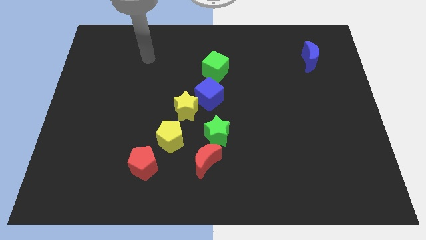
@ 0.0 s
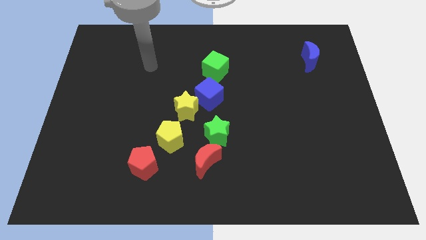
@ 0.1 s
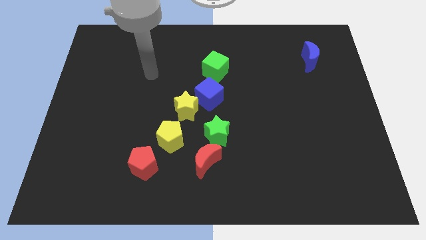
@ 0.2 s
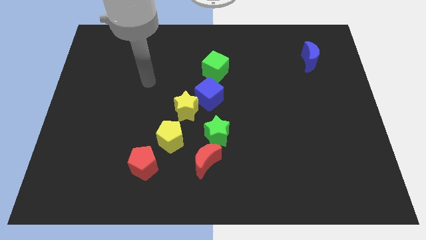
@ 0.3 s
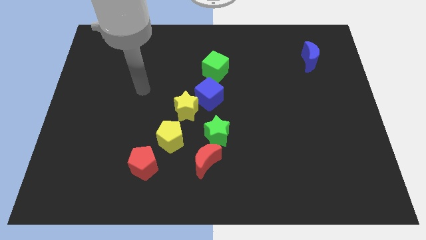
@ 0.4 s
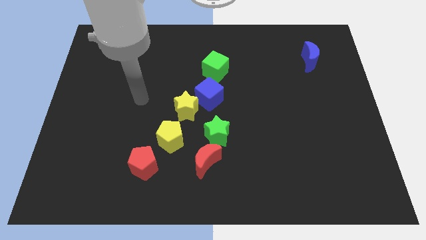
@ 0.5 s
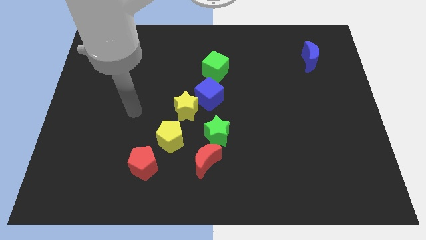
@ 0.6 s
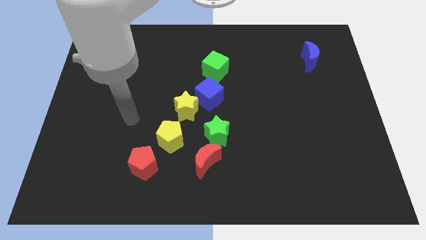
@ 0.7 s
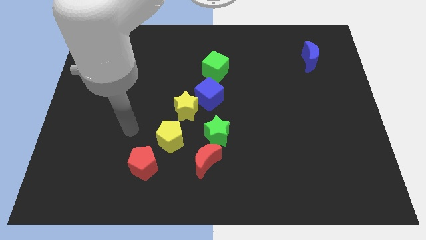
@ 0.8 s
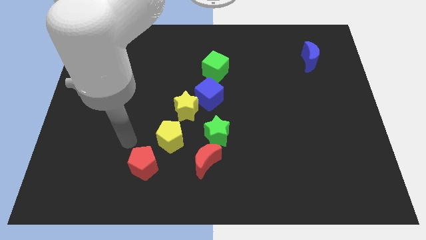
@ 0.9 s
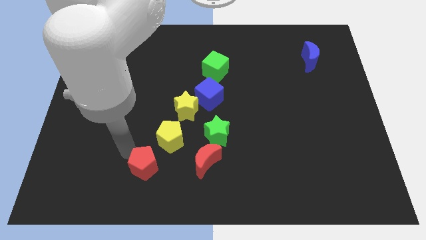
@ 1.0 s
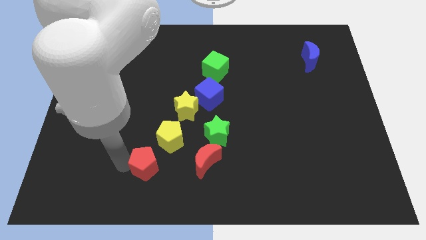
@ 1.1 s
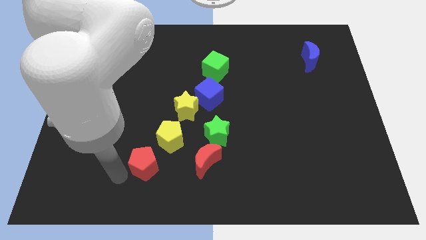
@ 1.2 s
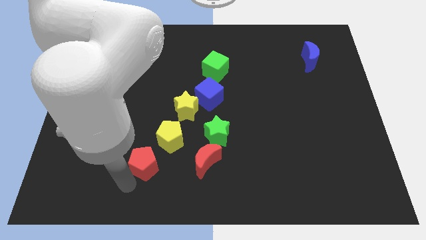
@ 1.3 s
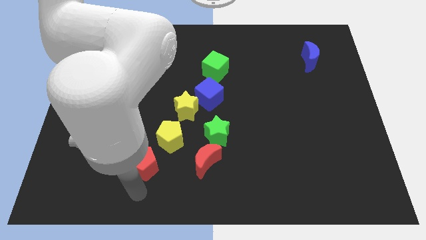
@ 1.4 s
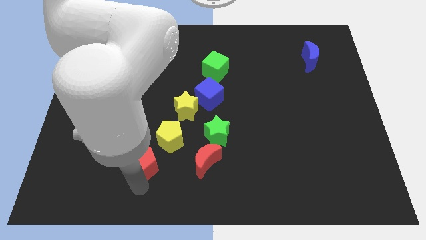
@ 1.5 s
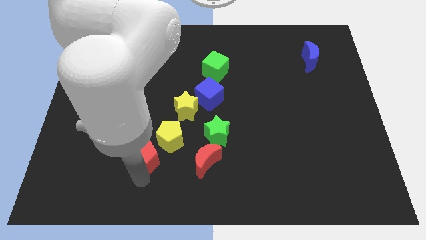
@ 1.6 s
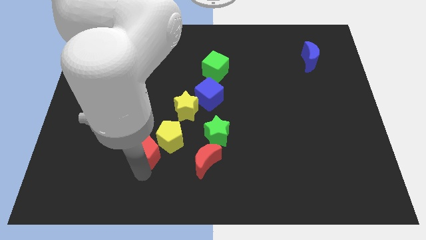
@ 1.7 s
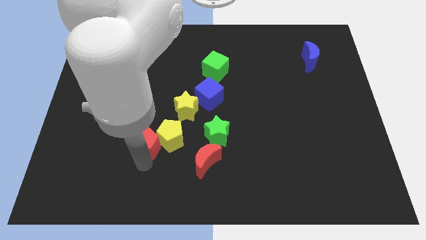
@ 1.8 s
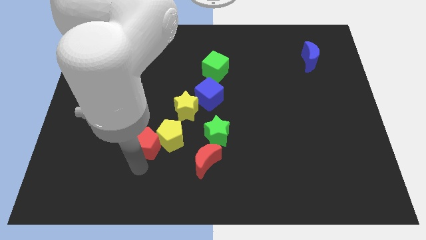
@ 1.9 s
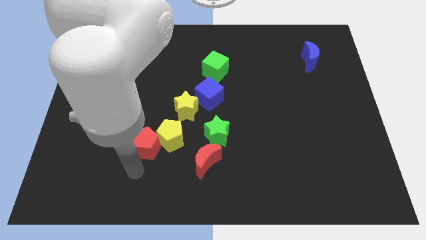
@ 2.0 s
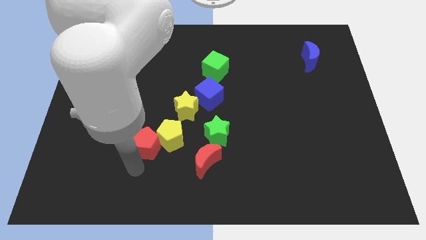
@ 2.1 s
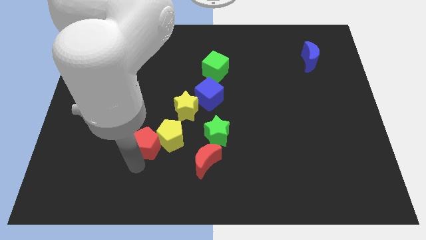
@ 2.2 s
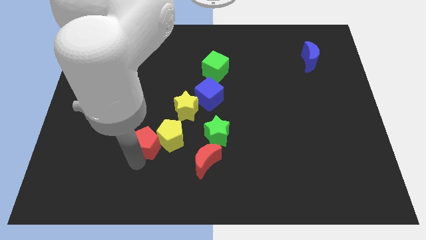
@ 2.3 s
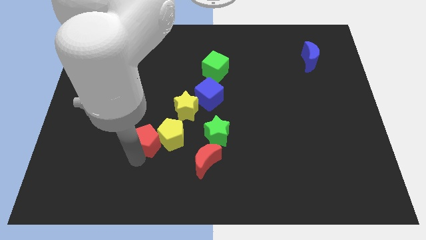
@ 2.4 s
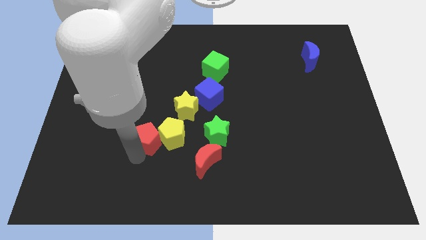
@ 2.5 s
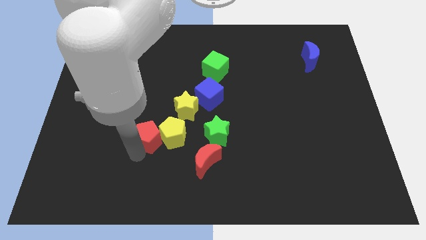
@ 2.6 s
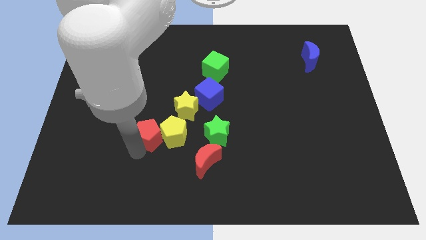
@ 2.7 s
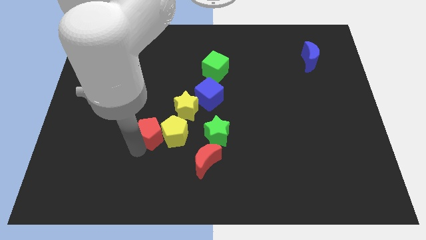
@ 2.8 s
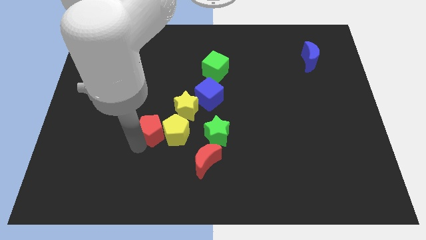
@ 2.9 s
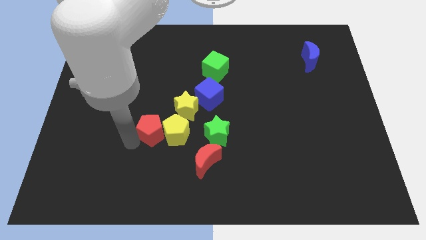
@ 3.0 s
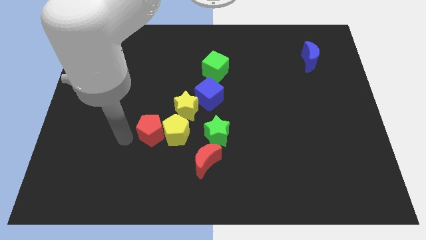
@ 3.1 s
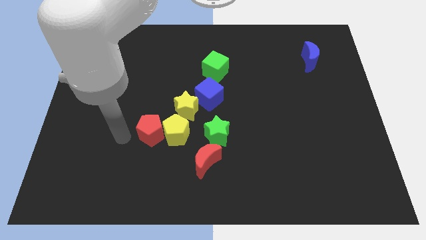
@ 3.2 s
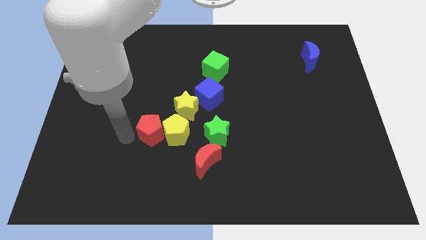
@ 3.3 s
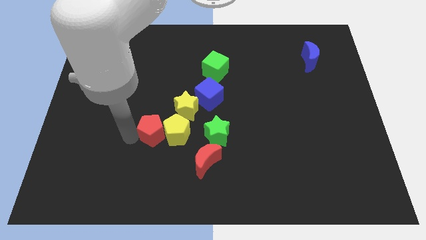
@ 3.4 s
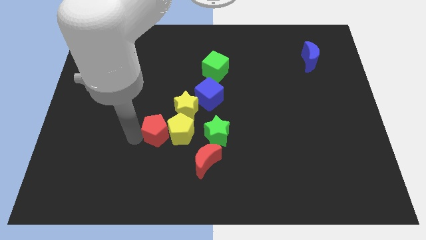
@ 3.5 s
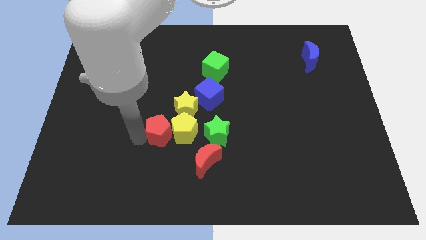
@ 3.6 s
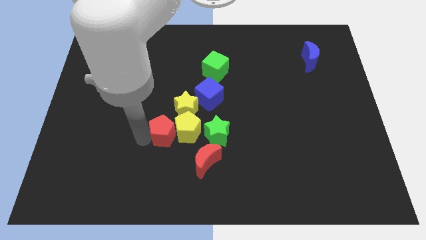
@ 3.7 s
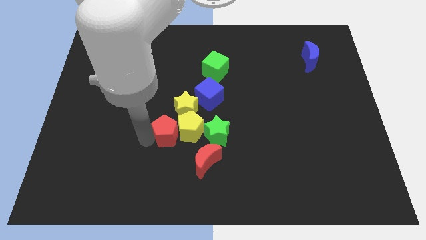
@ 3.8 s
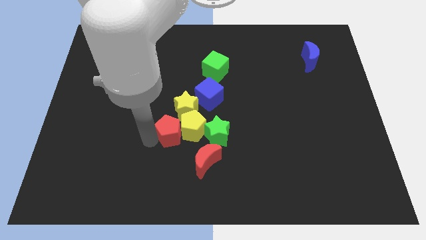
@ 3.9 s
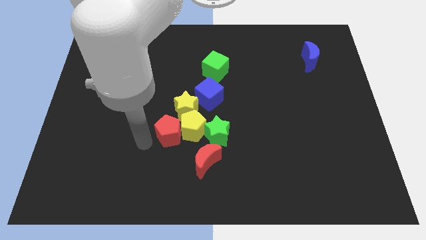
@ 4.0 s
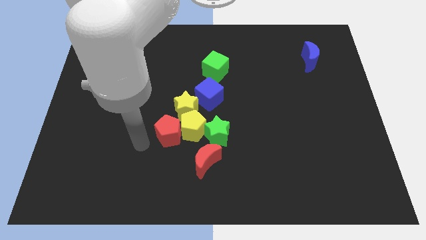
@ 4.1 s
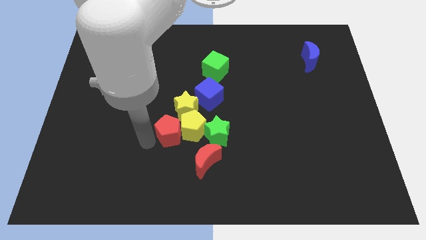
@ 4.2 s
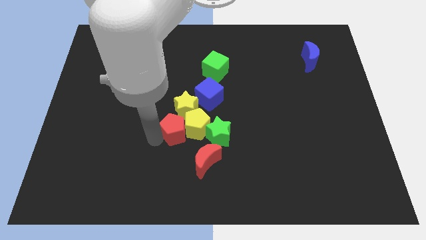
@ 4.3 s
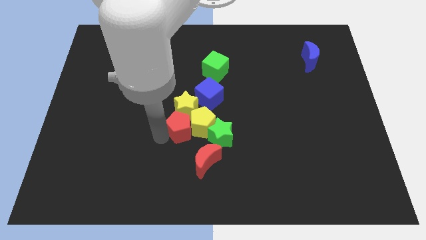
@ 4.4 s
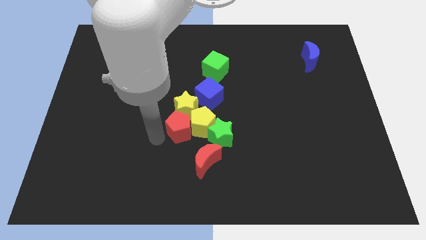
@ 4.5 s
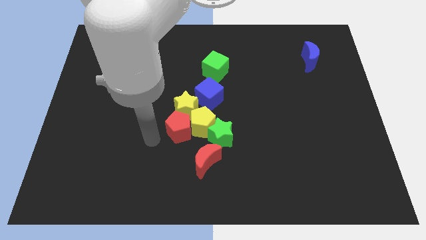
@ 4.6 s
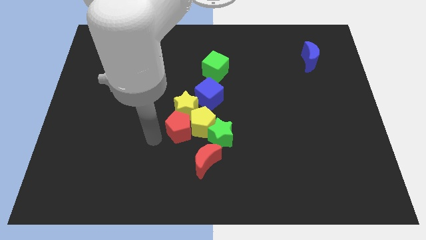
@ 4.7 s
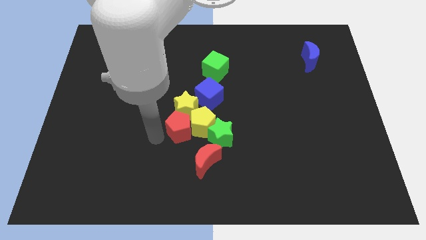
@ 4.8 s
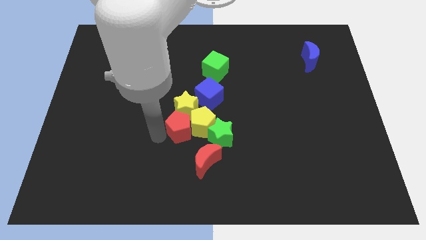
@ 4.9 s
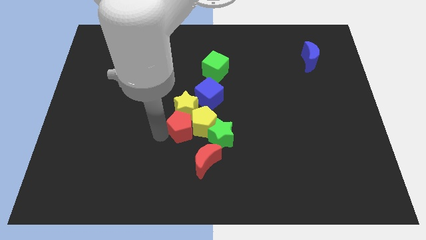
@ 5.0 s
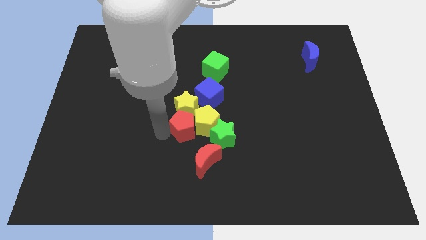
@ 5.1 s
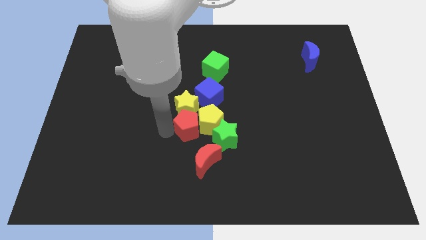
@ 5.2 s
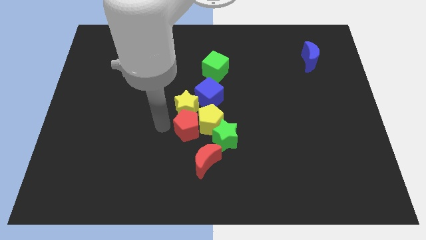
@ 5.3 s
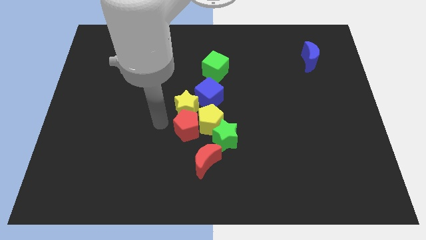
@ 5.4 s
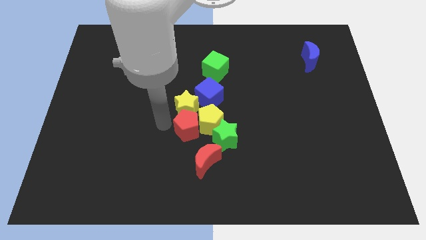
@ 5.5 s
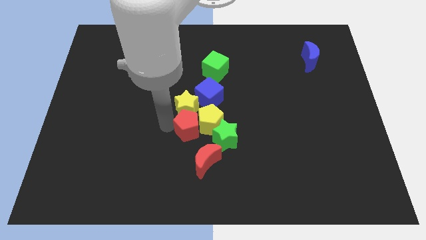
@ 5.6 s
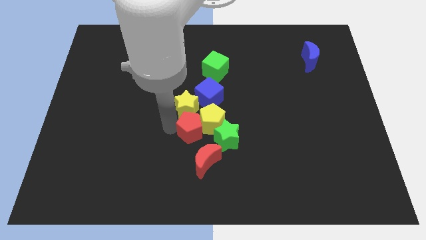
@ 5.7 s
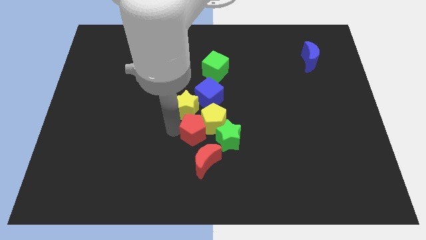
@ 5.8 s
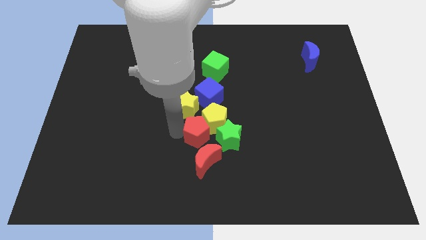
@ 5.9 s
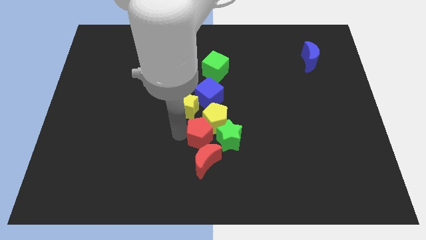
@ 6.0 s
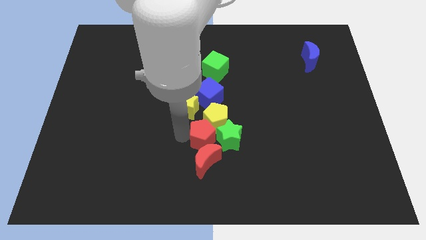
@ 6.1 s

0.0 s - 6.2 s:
slide the red pentagon to the green star

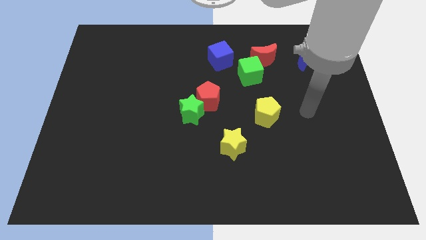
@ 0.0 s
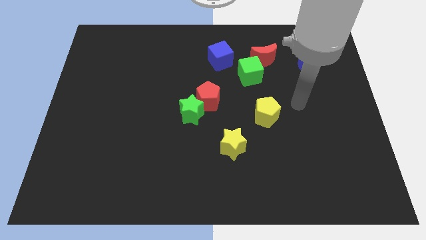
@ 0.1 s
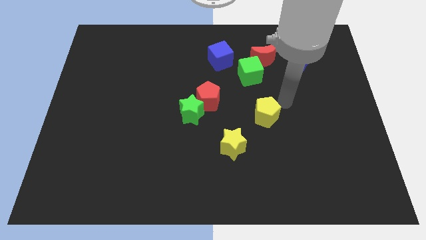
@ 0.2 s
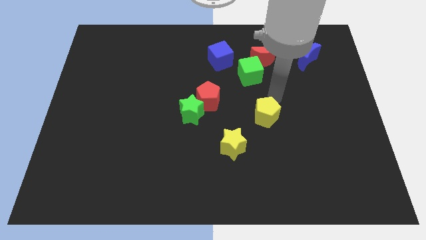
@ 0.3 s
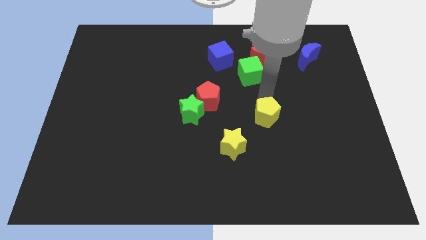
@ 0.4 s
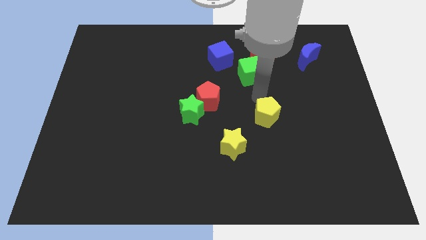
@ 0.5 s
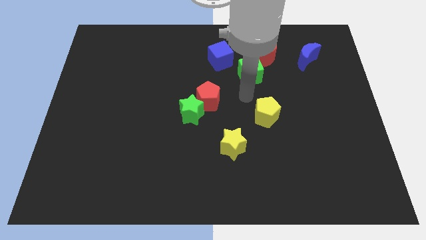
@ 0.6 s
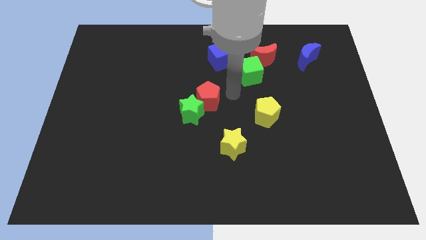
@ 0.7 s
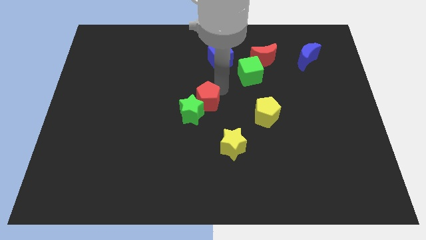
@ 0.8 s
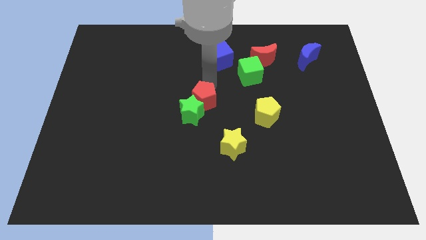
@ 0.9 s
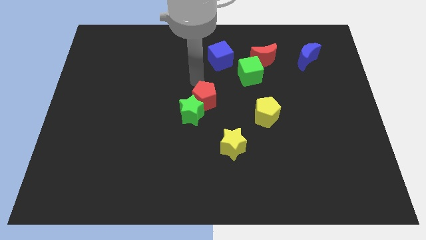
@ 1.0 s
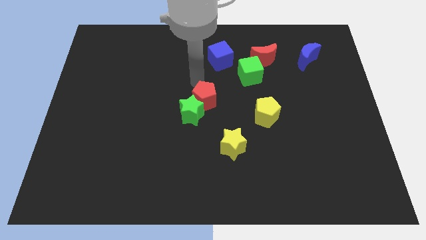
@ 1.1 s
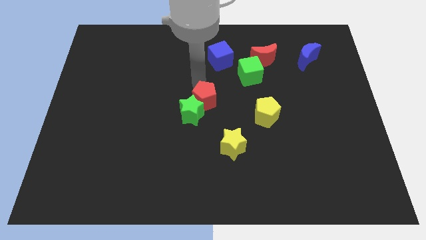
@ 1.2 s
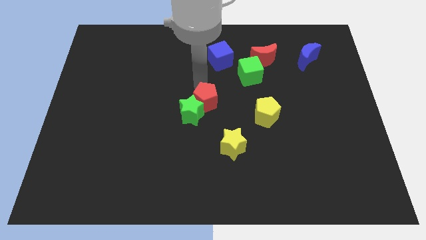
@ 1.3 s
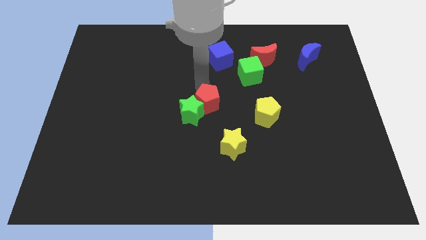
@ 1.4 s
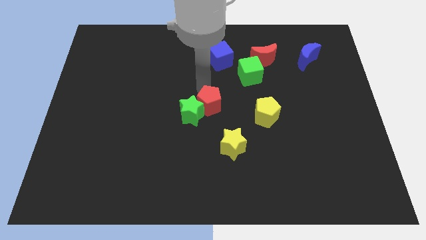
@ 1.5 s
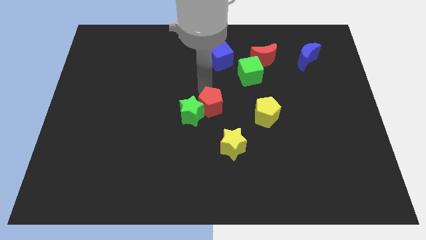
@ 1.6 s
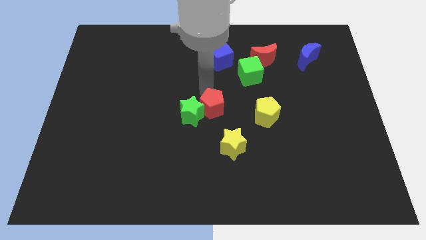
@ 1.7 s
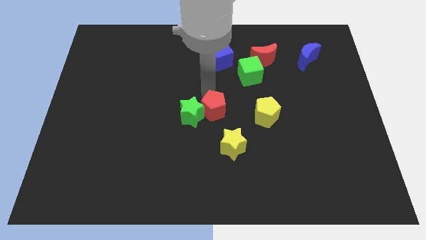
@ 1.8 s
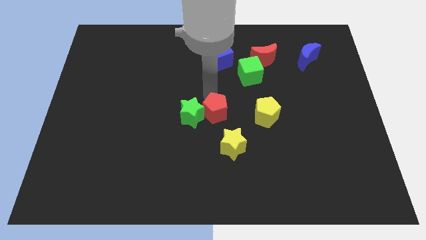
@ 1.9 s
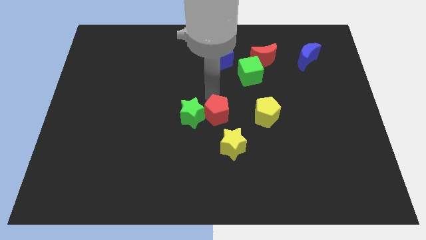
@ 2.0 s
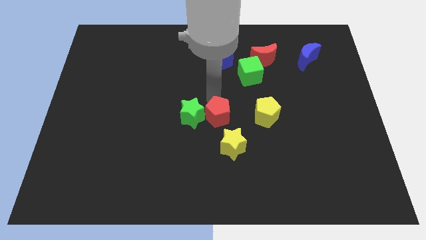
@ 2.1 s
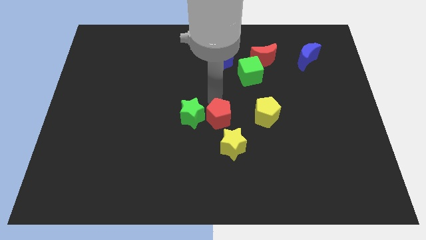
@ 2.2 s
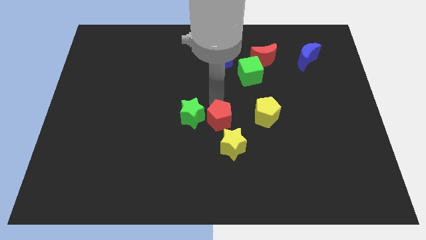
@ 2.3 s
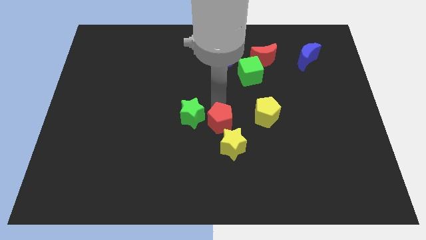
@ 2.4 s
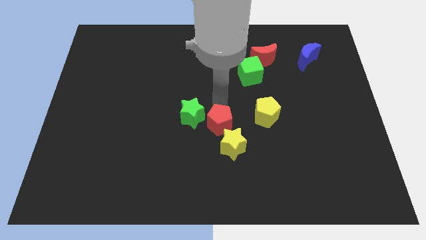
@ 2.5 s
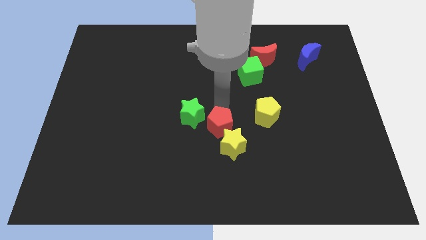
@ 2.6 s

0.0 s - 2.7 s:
put the red pentagon to the yellow star
